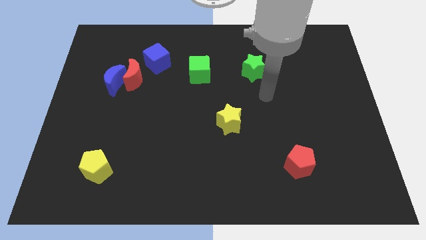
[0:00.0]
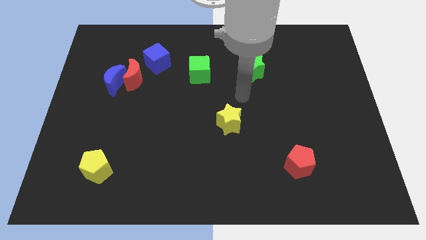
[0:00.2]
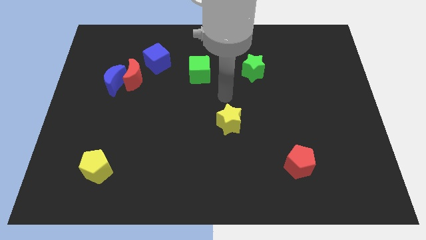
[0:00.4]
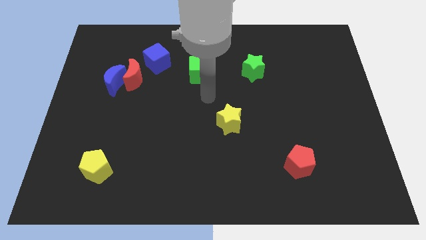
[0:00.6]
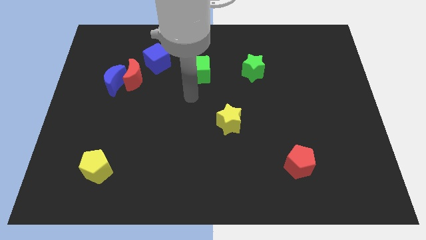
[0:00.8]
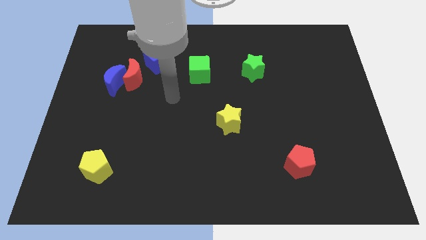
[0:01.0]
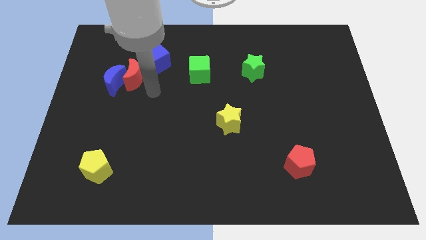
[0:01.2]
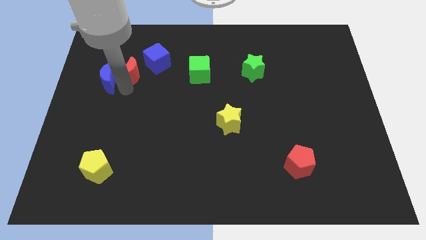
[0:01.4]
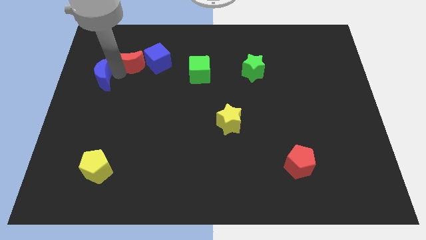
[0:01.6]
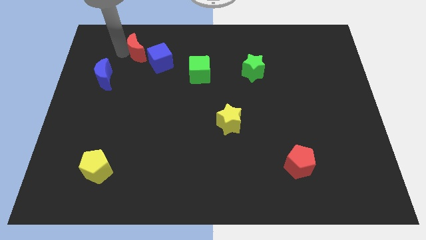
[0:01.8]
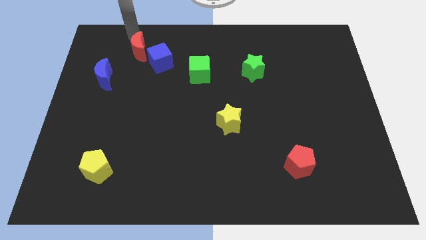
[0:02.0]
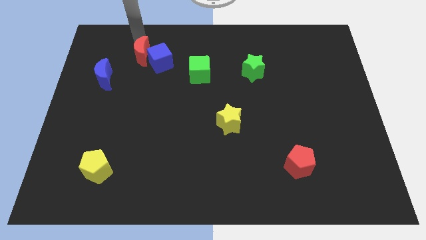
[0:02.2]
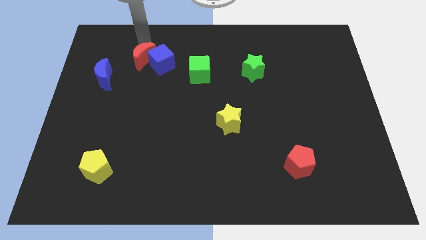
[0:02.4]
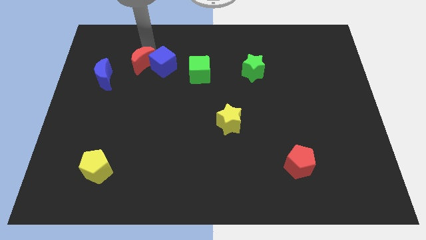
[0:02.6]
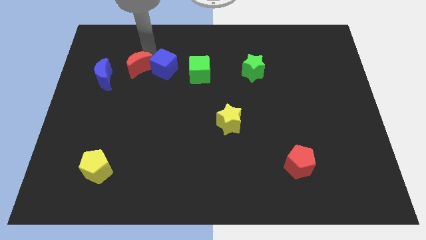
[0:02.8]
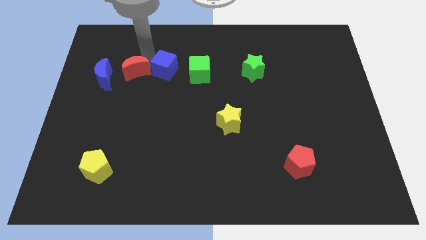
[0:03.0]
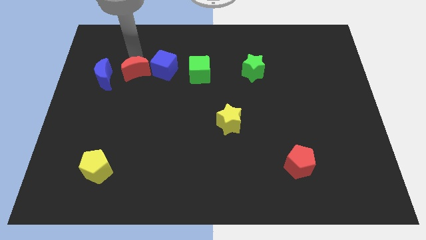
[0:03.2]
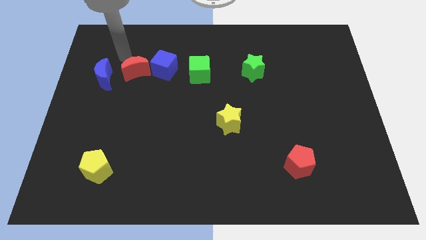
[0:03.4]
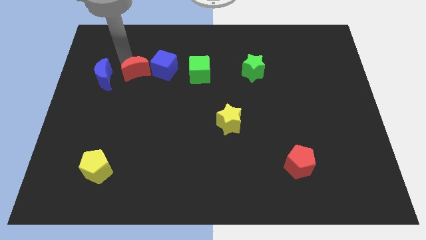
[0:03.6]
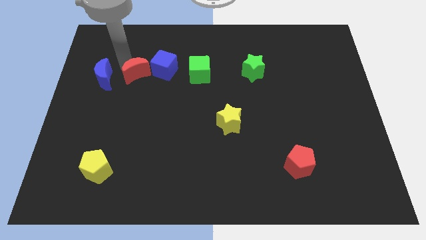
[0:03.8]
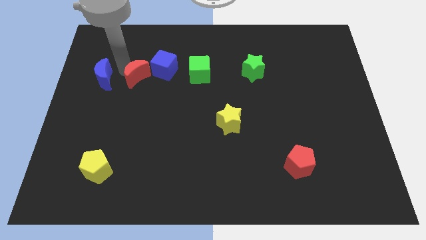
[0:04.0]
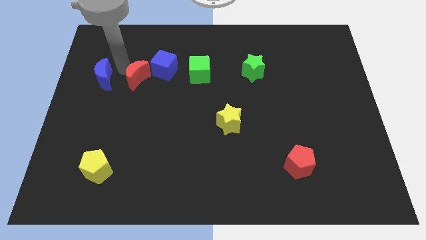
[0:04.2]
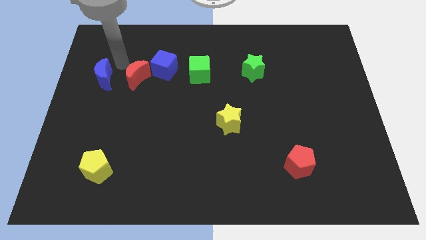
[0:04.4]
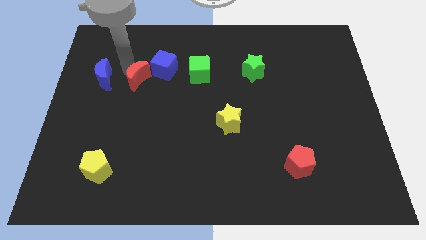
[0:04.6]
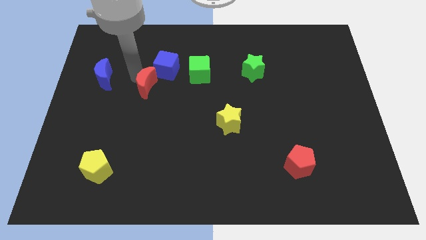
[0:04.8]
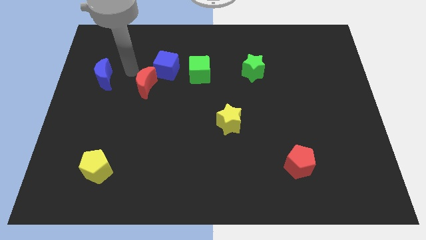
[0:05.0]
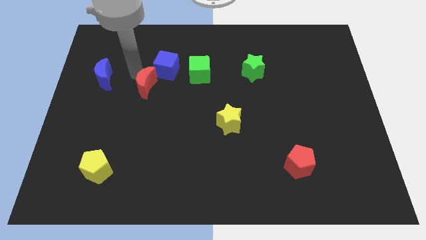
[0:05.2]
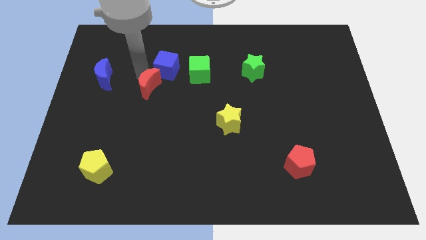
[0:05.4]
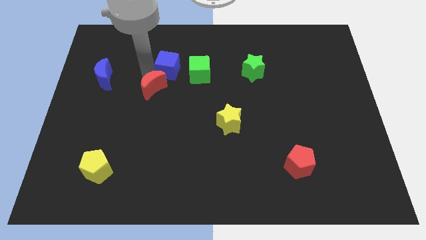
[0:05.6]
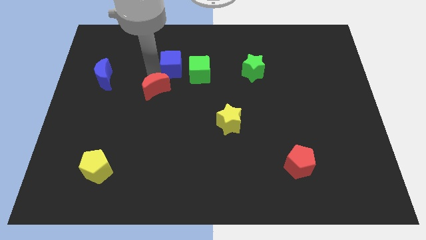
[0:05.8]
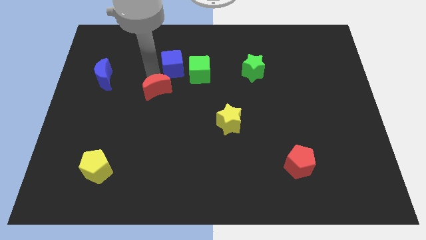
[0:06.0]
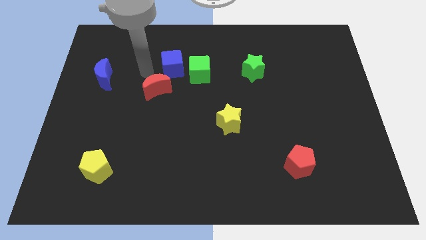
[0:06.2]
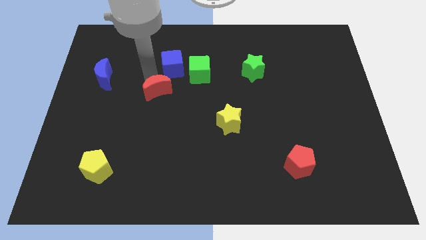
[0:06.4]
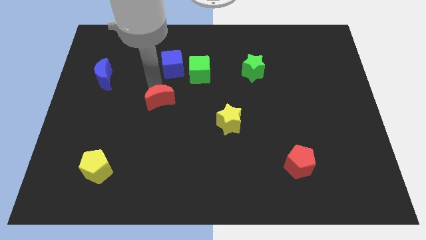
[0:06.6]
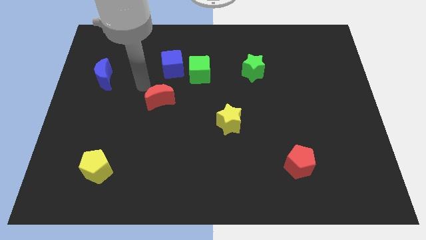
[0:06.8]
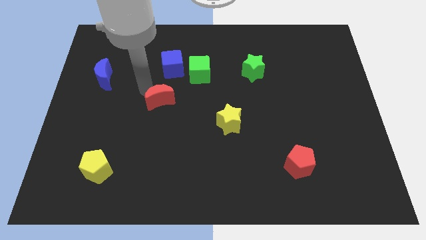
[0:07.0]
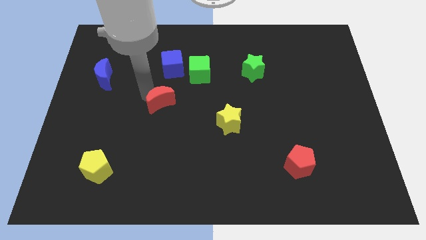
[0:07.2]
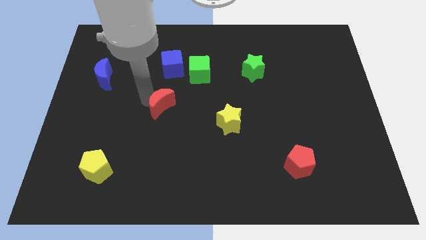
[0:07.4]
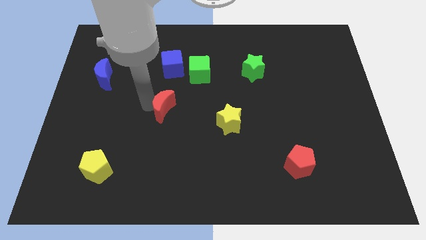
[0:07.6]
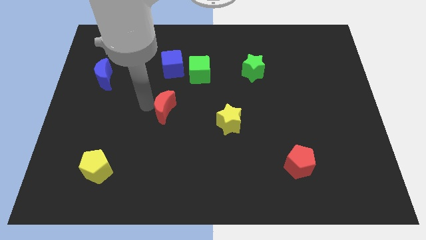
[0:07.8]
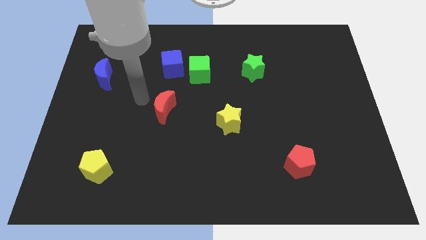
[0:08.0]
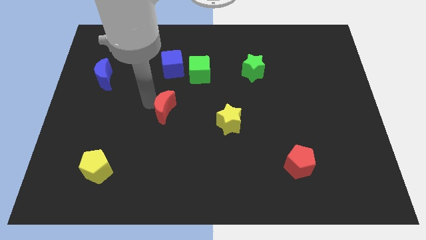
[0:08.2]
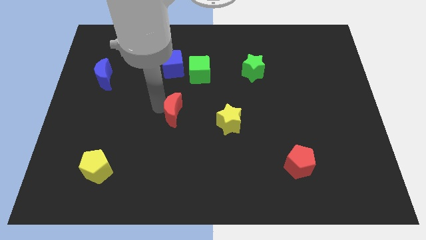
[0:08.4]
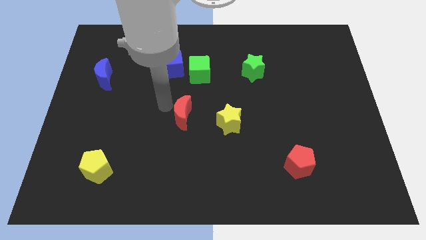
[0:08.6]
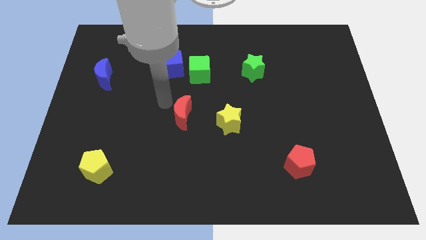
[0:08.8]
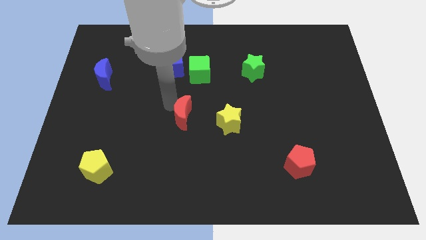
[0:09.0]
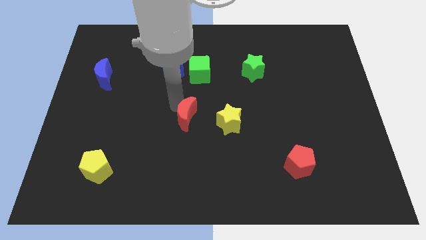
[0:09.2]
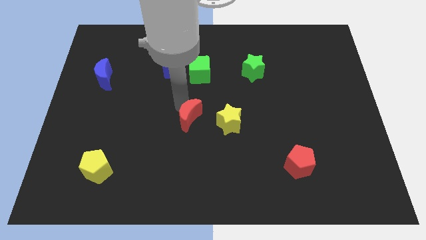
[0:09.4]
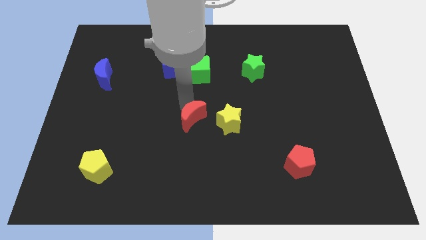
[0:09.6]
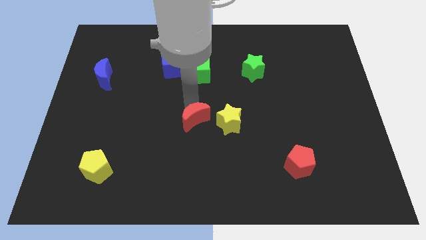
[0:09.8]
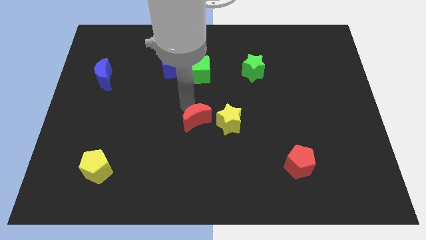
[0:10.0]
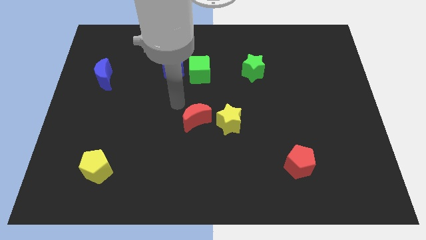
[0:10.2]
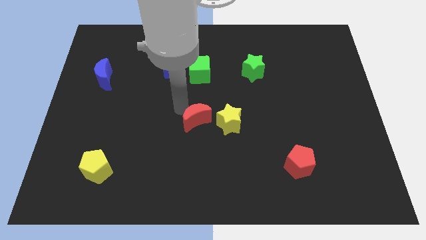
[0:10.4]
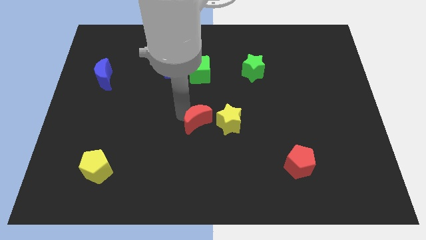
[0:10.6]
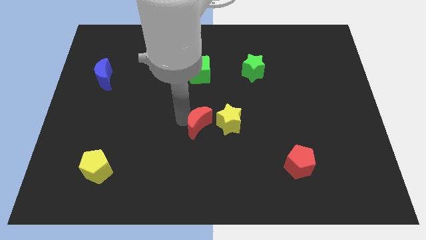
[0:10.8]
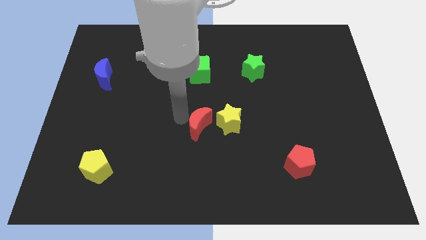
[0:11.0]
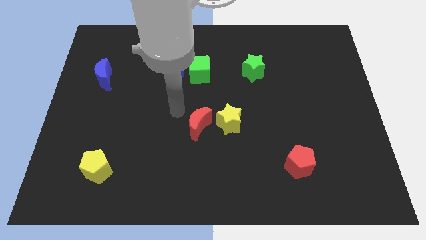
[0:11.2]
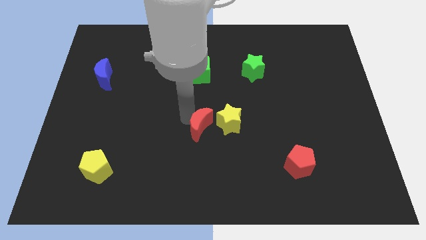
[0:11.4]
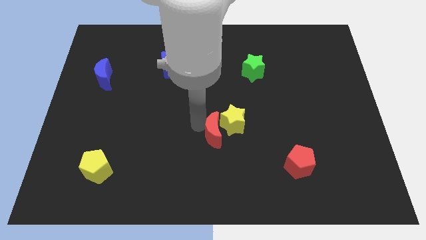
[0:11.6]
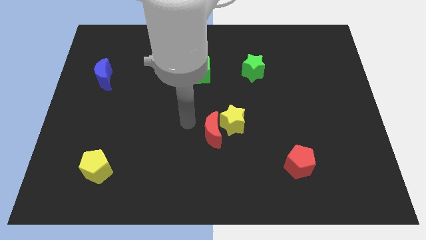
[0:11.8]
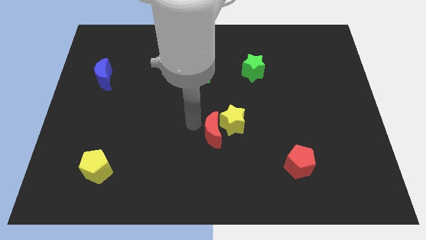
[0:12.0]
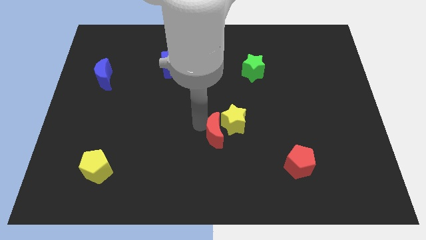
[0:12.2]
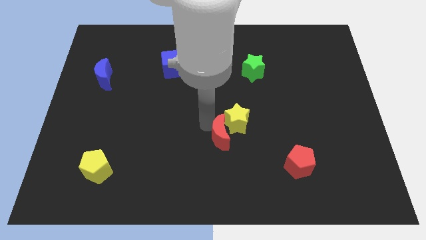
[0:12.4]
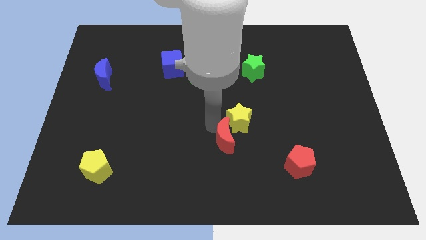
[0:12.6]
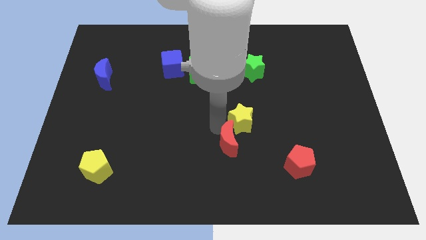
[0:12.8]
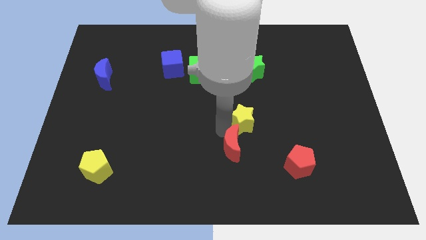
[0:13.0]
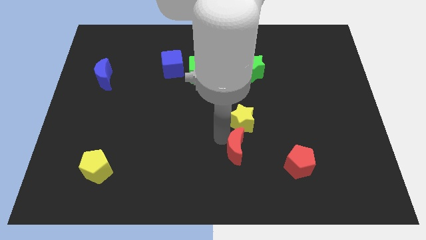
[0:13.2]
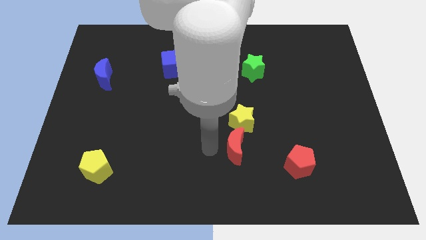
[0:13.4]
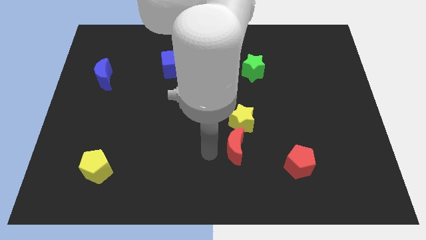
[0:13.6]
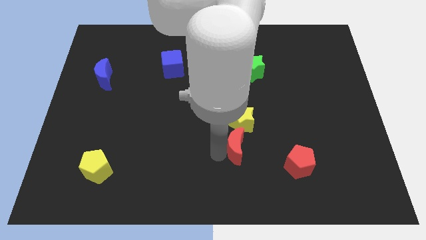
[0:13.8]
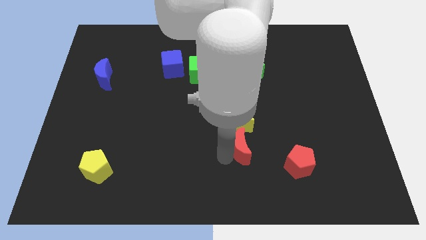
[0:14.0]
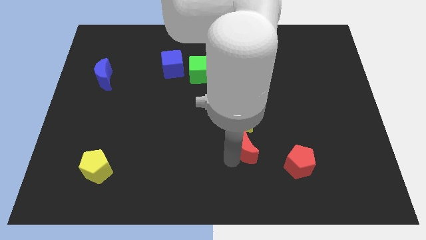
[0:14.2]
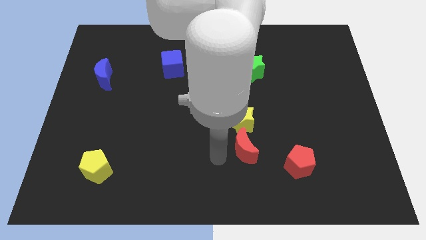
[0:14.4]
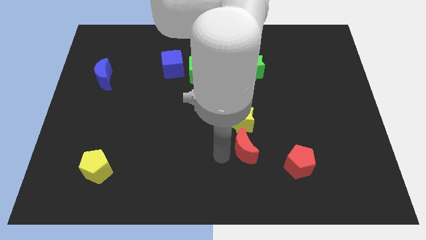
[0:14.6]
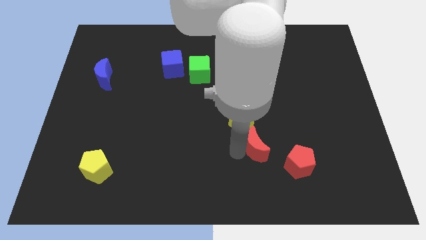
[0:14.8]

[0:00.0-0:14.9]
put the red moon to the top left side of the red pentagon

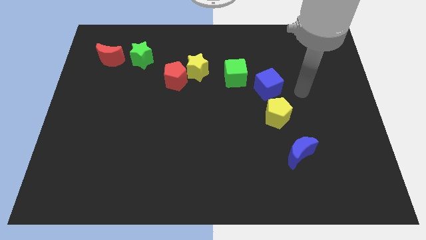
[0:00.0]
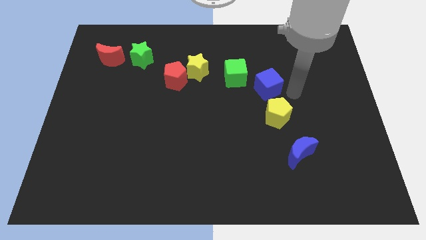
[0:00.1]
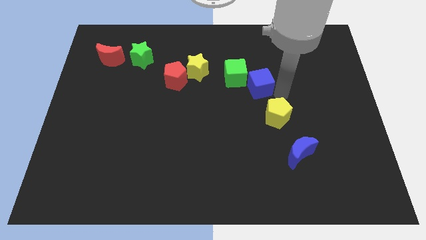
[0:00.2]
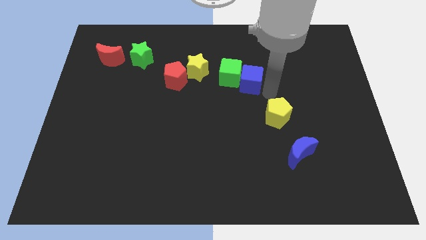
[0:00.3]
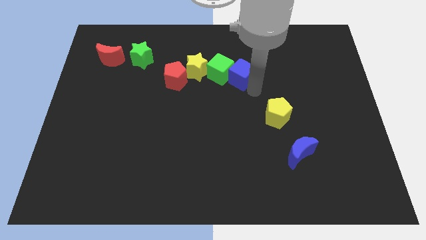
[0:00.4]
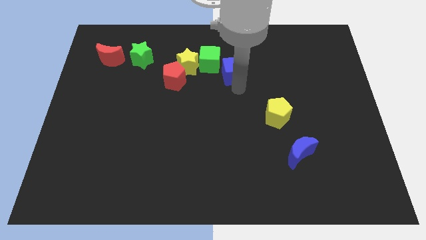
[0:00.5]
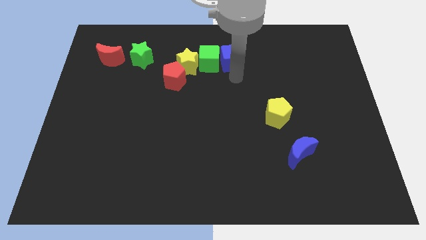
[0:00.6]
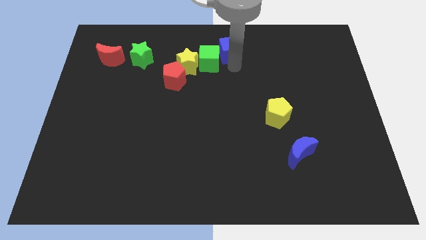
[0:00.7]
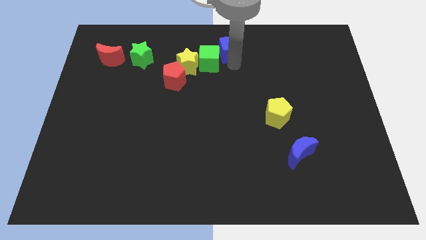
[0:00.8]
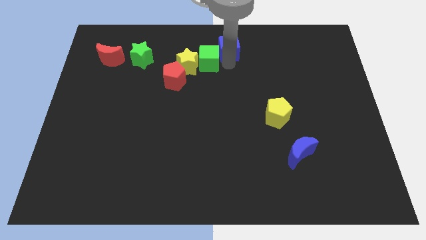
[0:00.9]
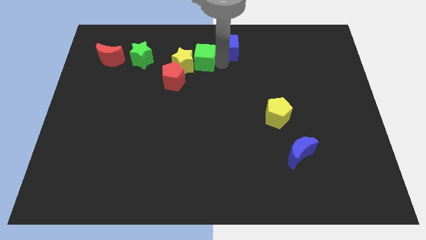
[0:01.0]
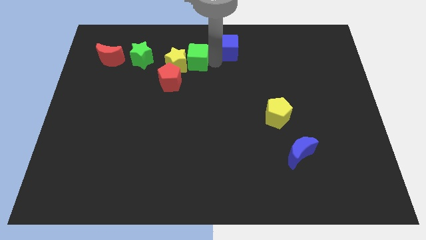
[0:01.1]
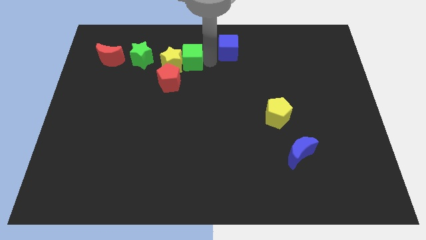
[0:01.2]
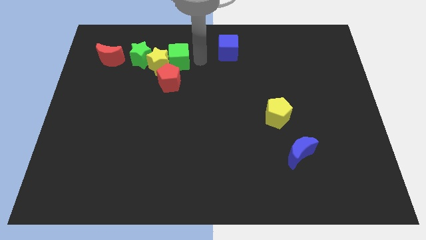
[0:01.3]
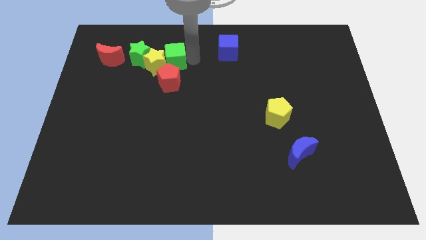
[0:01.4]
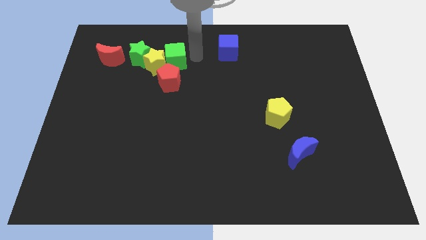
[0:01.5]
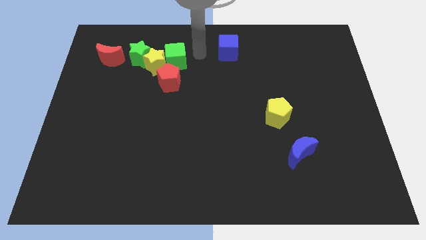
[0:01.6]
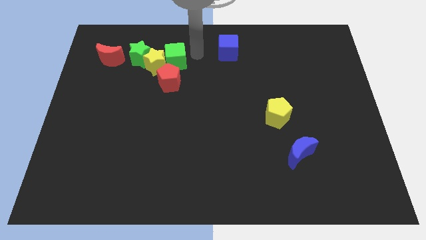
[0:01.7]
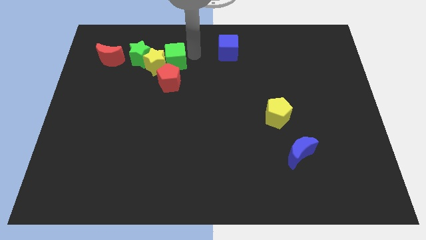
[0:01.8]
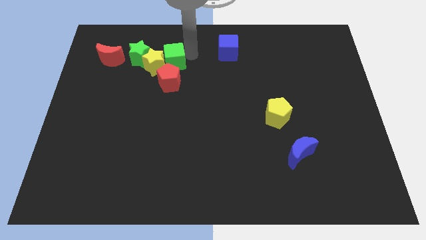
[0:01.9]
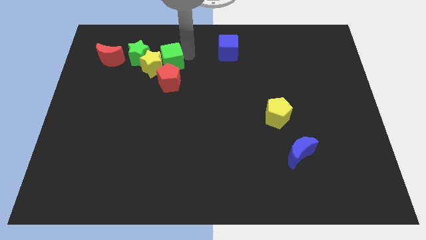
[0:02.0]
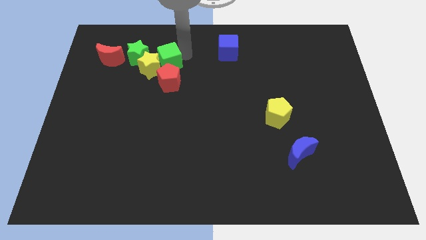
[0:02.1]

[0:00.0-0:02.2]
move the green cube to the top left of the red pentagon
